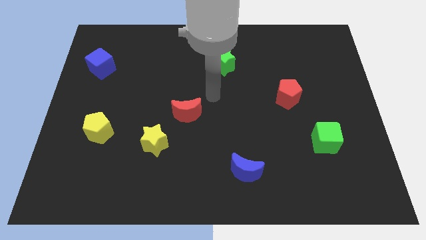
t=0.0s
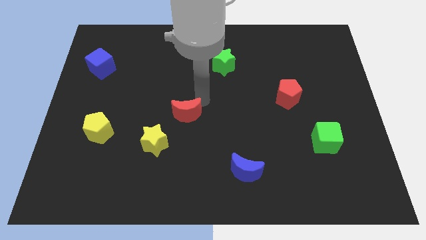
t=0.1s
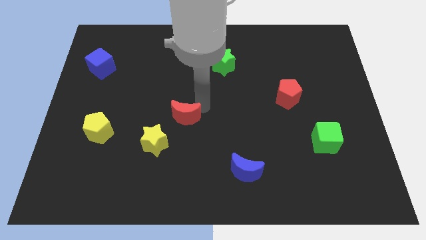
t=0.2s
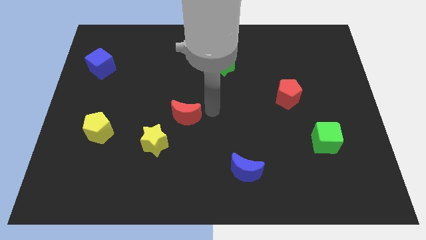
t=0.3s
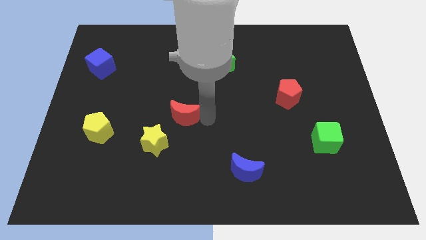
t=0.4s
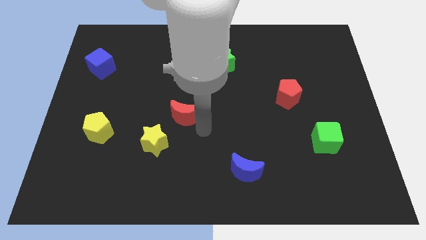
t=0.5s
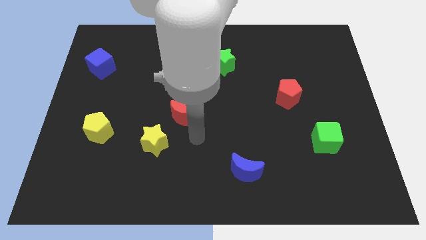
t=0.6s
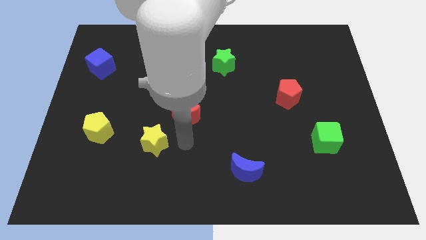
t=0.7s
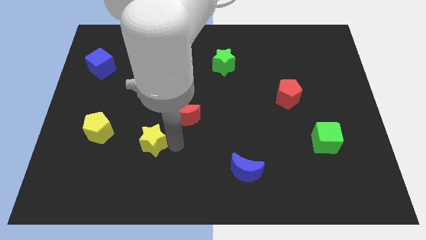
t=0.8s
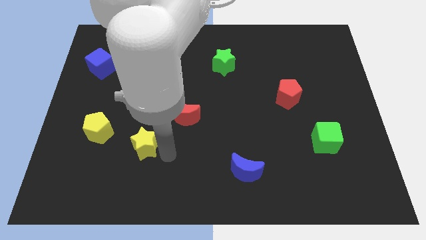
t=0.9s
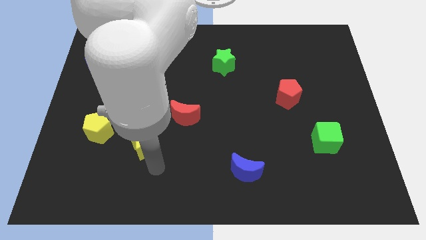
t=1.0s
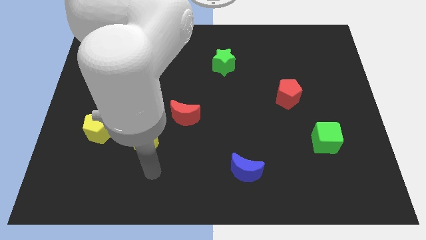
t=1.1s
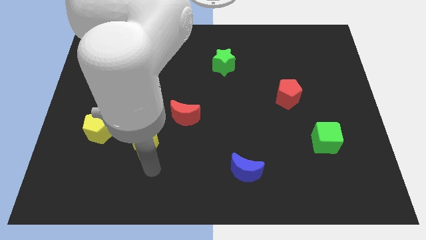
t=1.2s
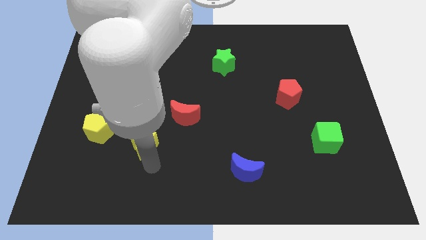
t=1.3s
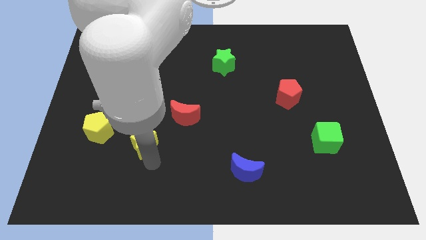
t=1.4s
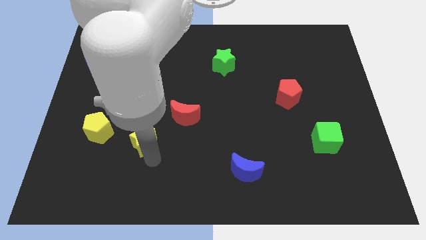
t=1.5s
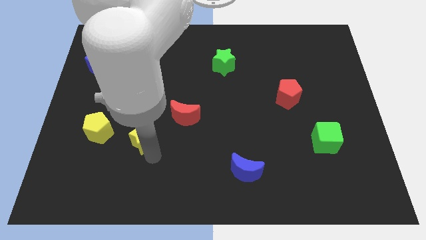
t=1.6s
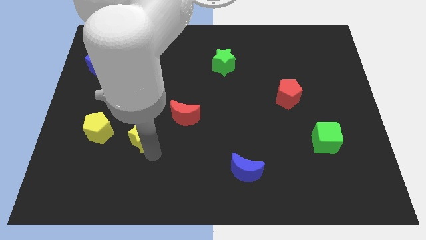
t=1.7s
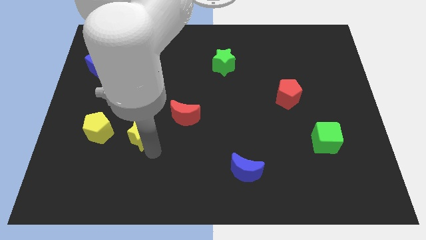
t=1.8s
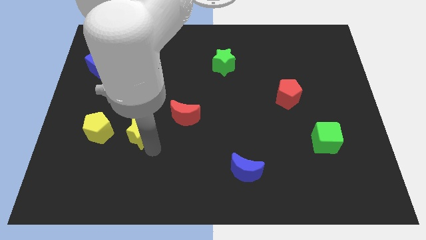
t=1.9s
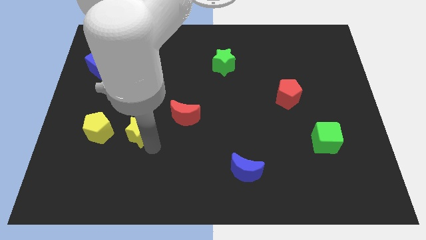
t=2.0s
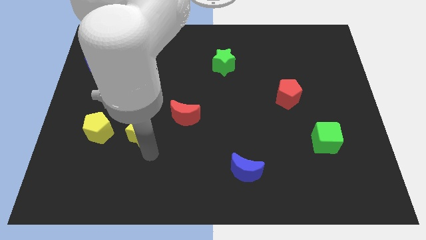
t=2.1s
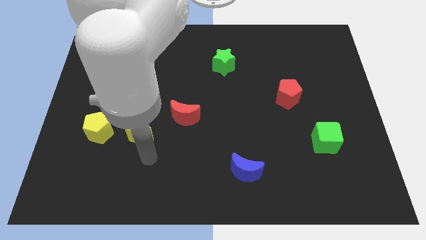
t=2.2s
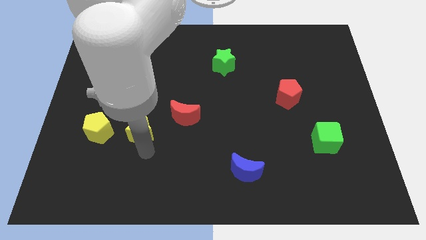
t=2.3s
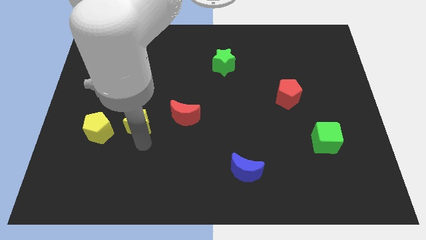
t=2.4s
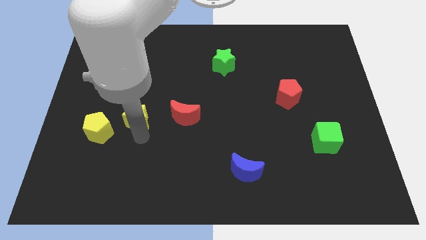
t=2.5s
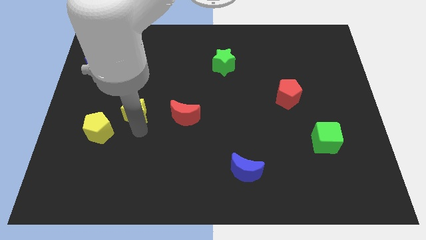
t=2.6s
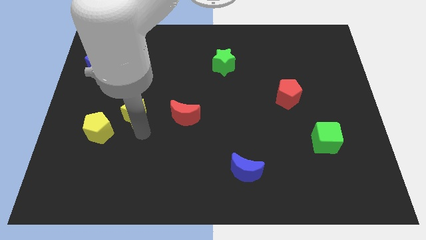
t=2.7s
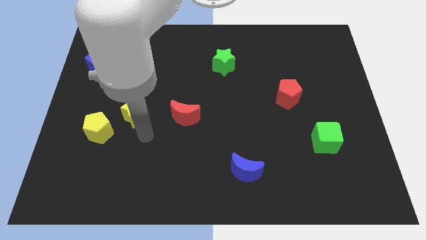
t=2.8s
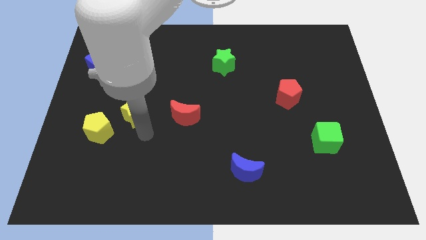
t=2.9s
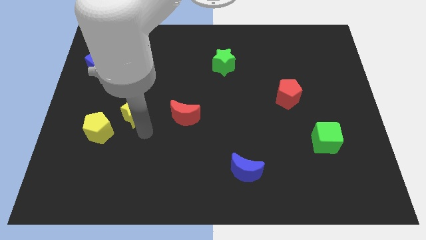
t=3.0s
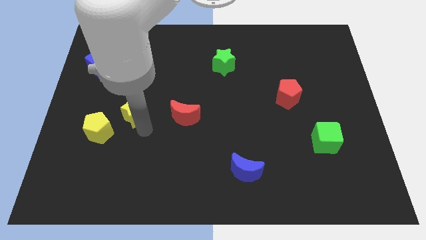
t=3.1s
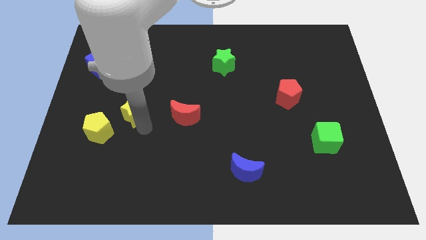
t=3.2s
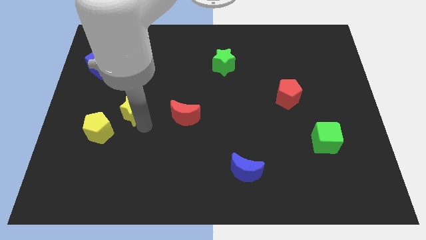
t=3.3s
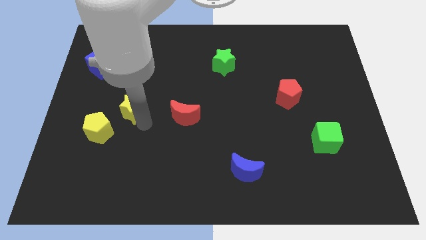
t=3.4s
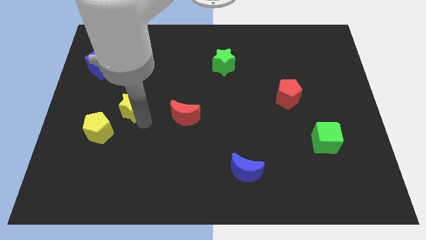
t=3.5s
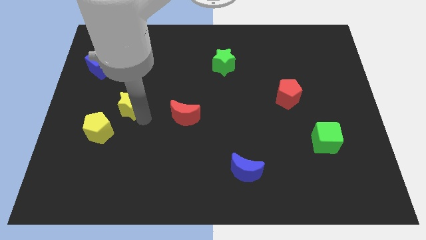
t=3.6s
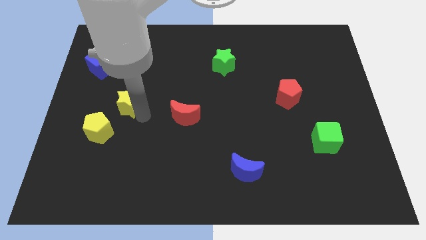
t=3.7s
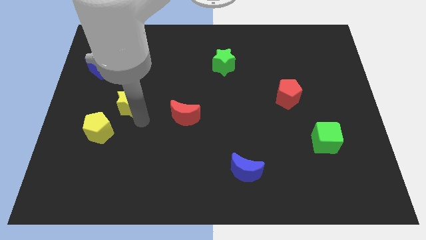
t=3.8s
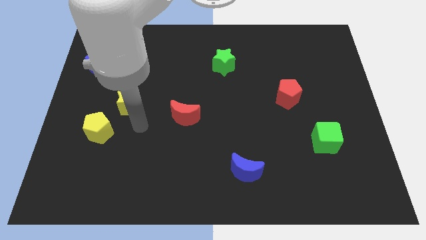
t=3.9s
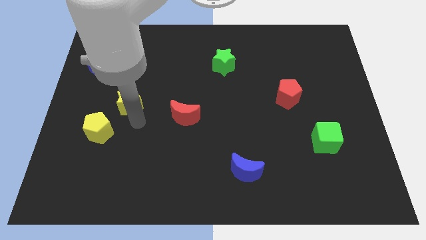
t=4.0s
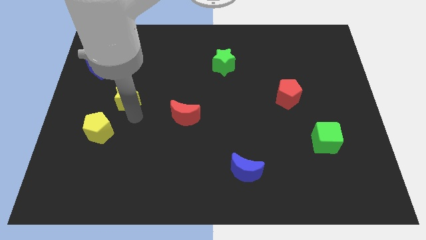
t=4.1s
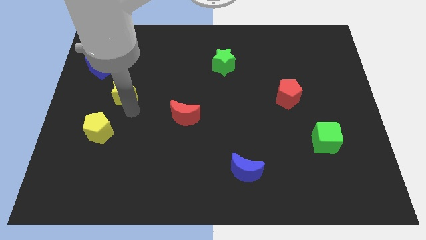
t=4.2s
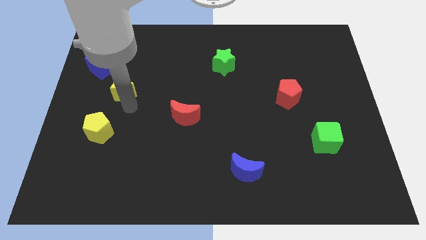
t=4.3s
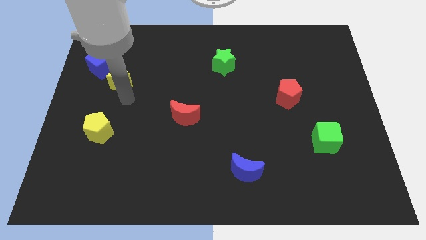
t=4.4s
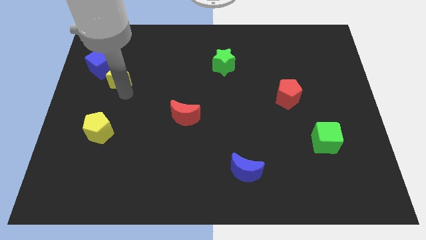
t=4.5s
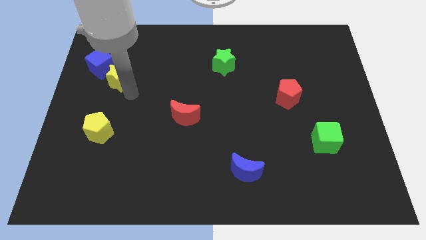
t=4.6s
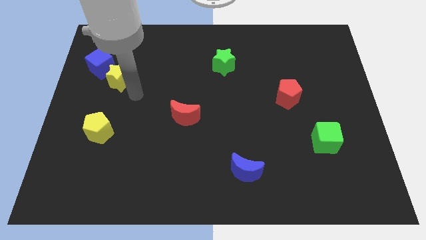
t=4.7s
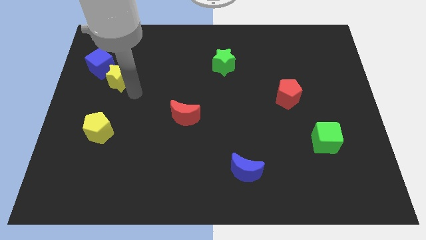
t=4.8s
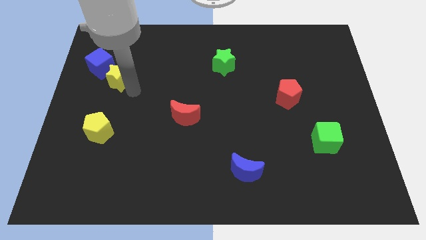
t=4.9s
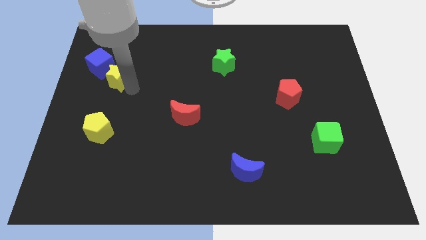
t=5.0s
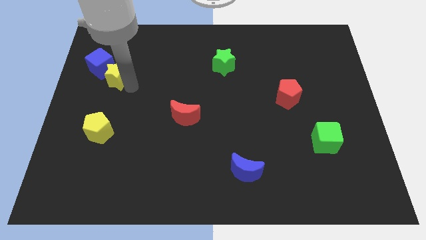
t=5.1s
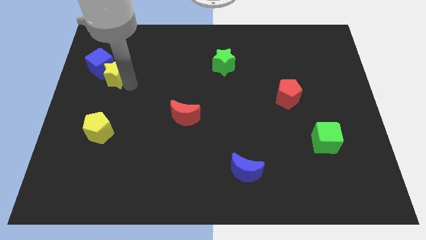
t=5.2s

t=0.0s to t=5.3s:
slide the yellow star next to the blue cube

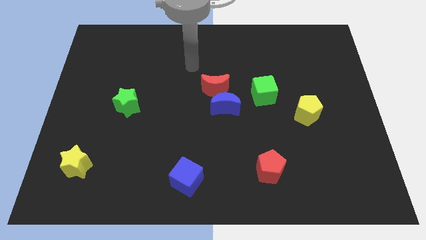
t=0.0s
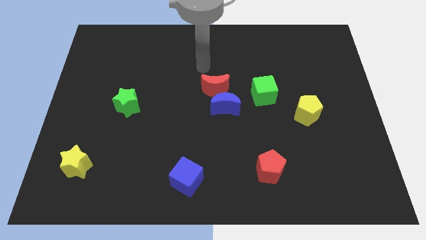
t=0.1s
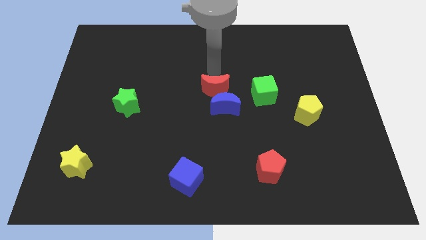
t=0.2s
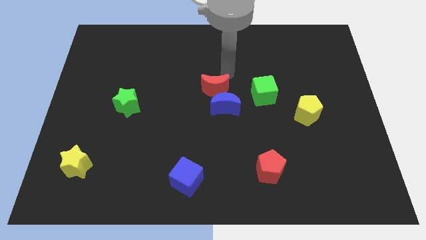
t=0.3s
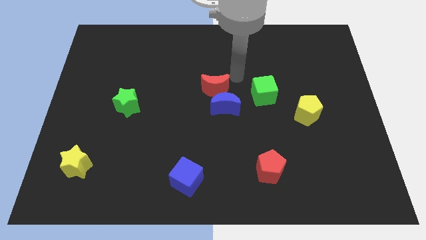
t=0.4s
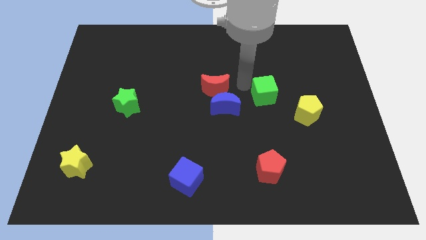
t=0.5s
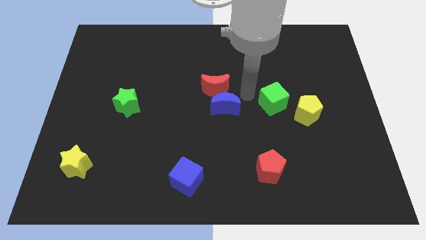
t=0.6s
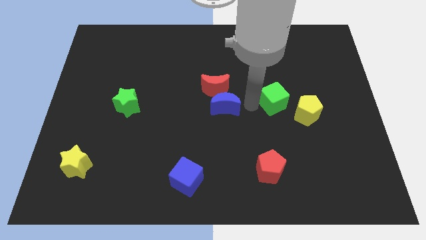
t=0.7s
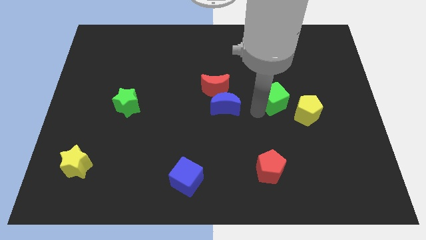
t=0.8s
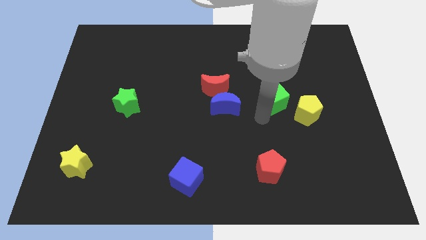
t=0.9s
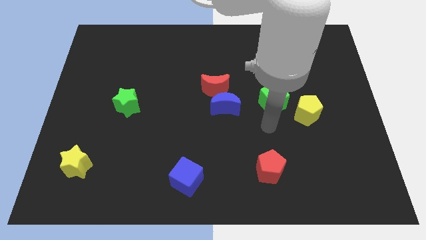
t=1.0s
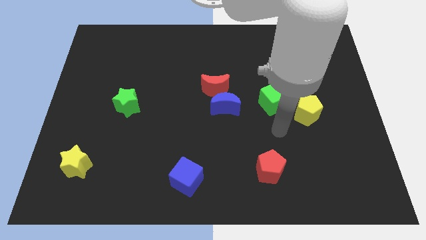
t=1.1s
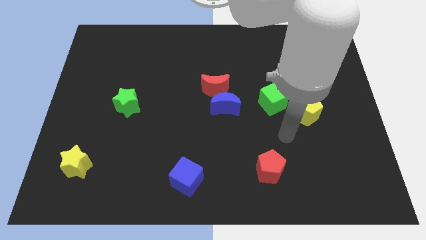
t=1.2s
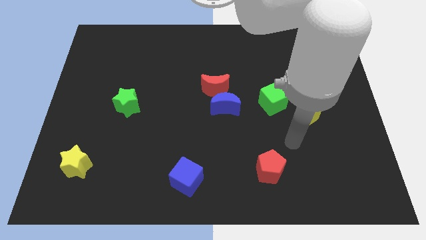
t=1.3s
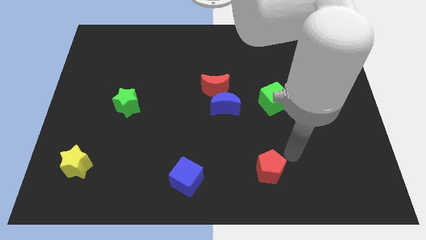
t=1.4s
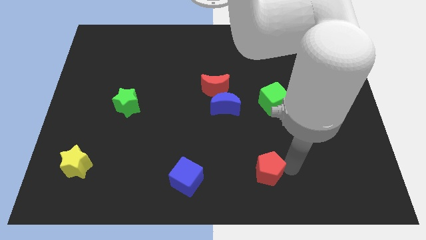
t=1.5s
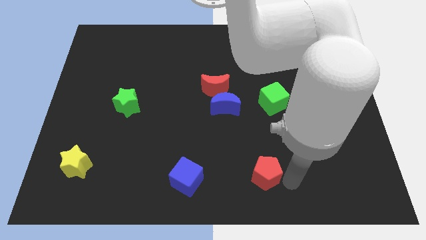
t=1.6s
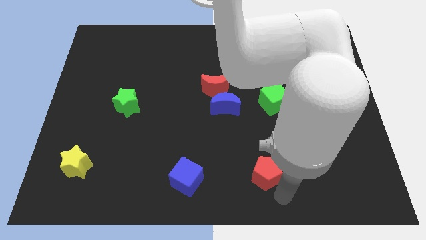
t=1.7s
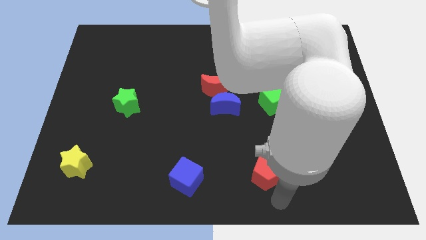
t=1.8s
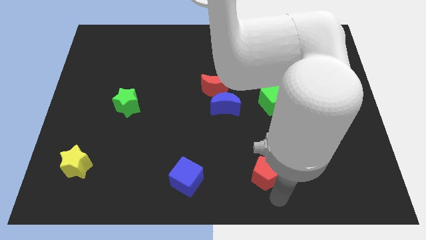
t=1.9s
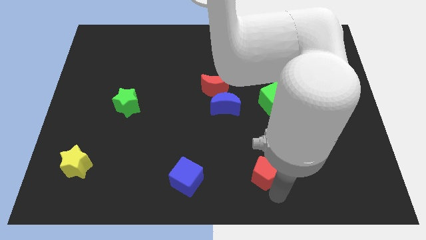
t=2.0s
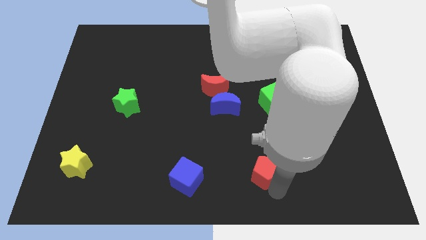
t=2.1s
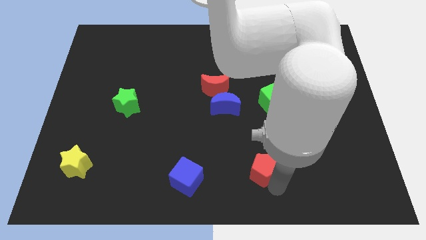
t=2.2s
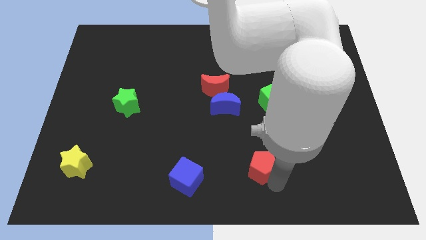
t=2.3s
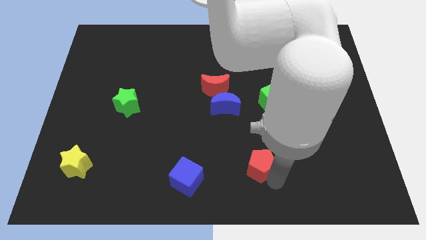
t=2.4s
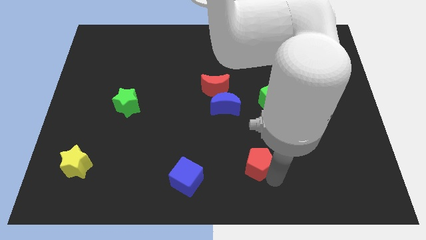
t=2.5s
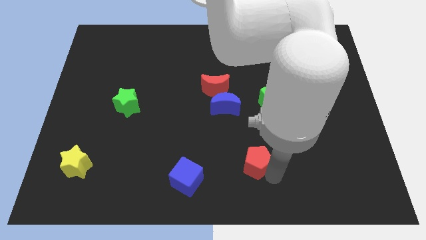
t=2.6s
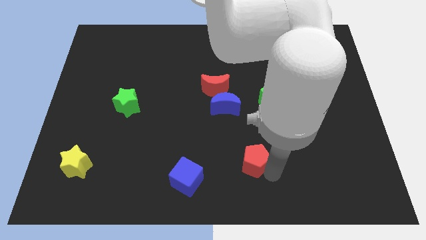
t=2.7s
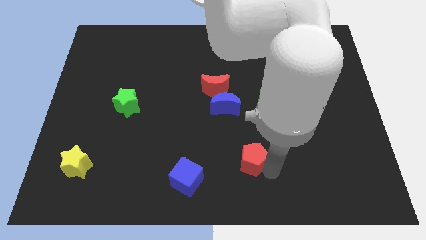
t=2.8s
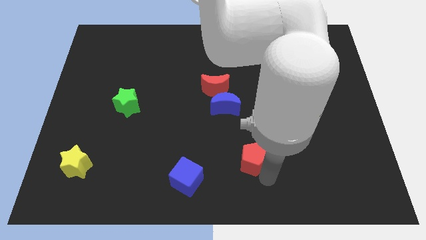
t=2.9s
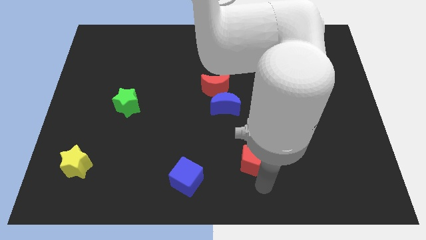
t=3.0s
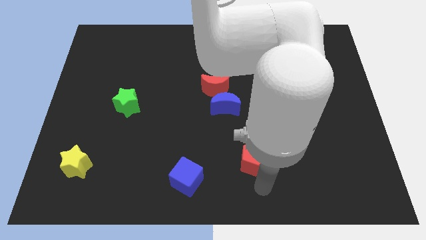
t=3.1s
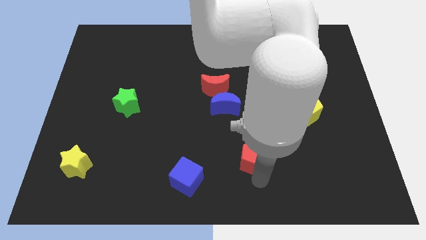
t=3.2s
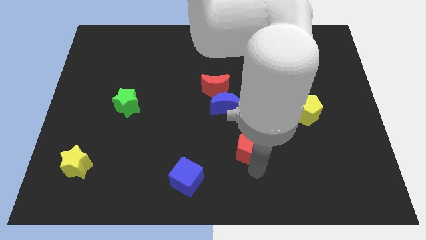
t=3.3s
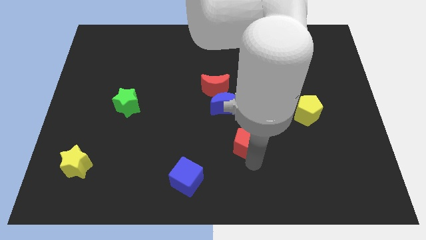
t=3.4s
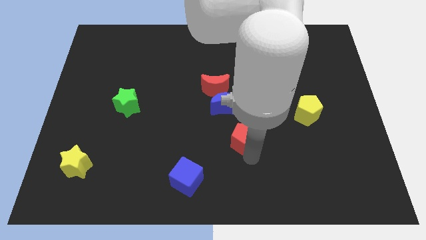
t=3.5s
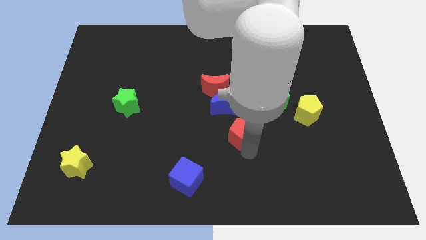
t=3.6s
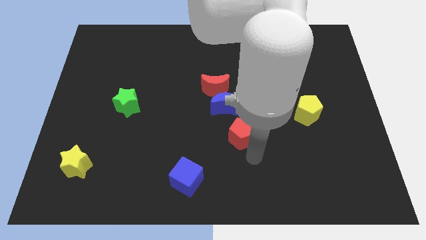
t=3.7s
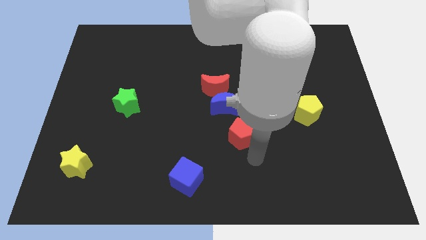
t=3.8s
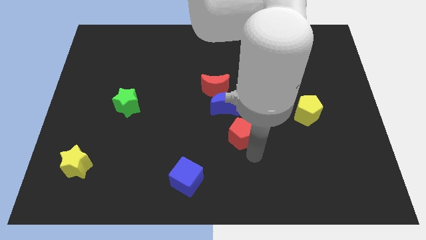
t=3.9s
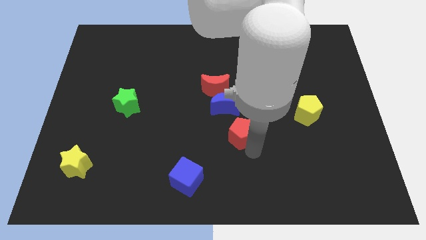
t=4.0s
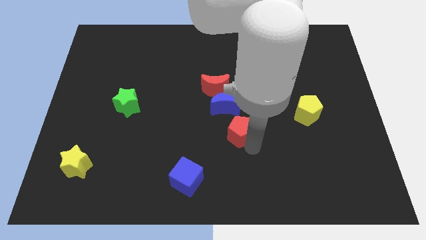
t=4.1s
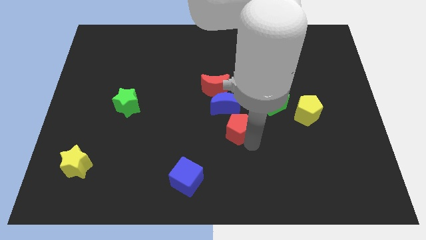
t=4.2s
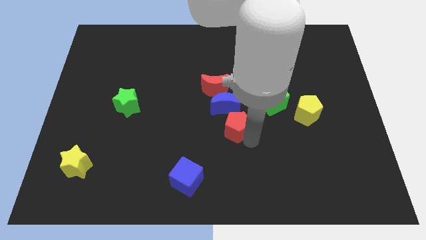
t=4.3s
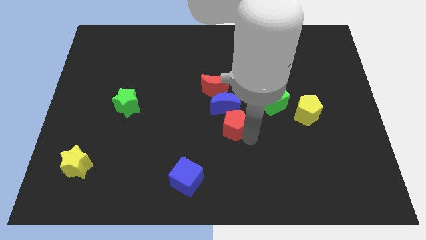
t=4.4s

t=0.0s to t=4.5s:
push the red pentagon close to the blue moon
